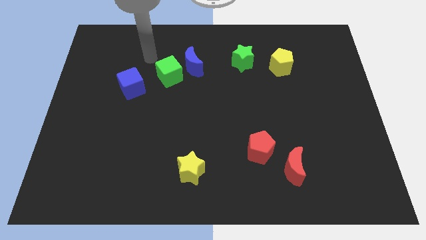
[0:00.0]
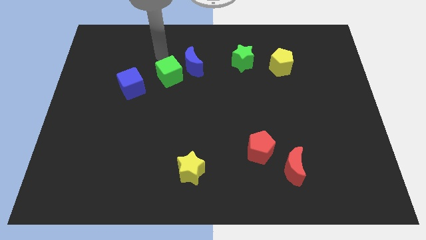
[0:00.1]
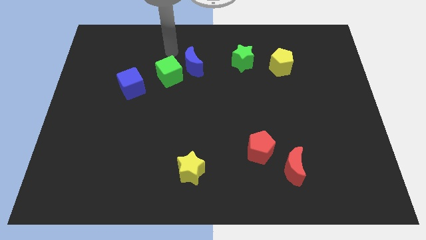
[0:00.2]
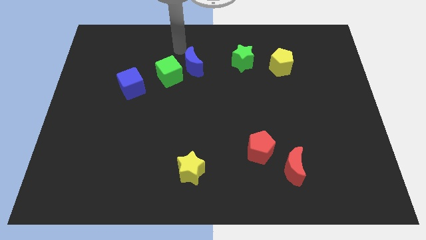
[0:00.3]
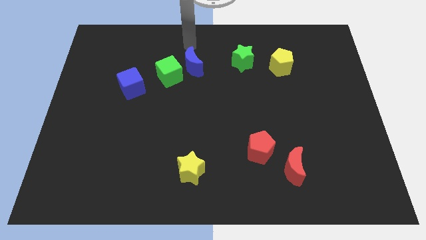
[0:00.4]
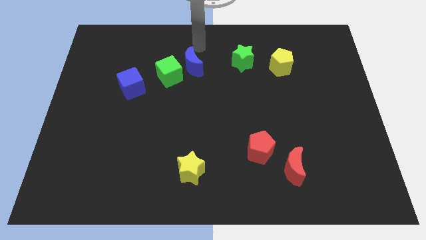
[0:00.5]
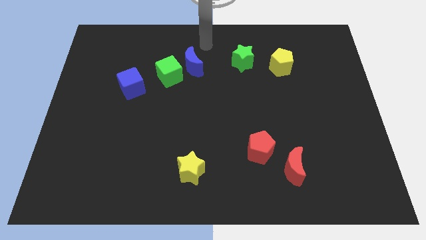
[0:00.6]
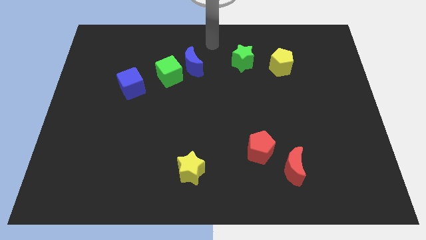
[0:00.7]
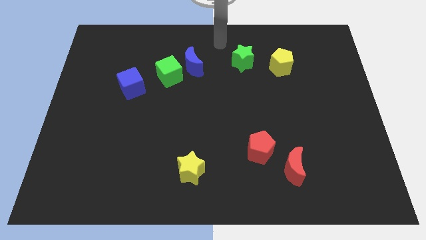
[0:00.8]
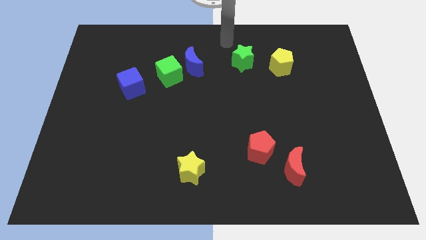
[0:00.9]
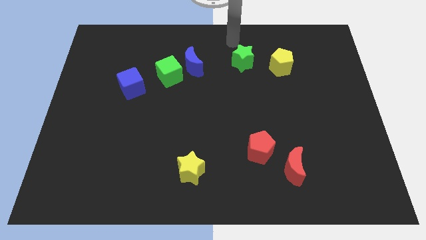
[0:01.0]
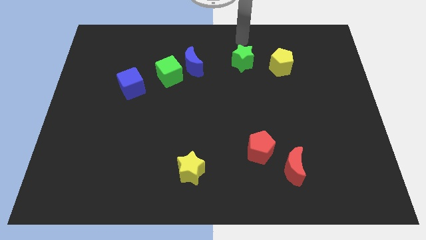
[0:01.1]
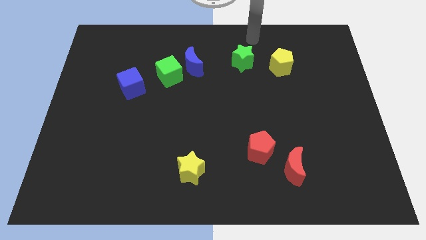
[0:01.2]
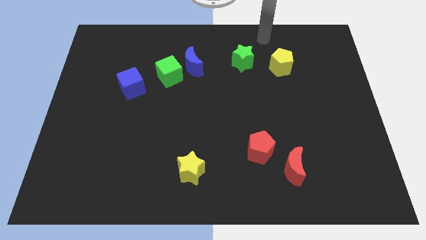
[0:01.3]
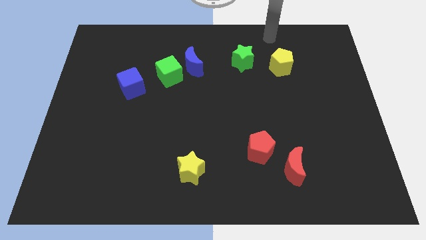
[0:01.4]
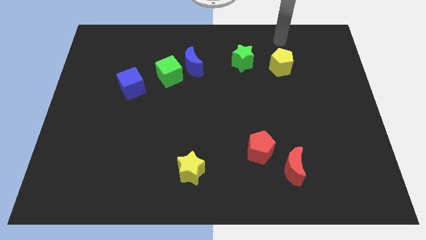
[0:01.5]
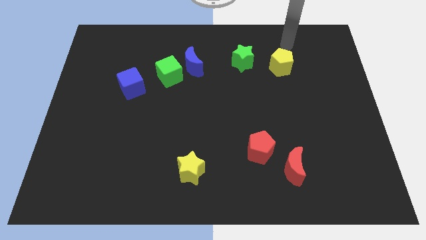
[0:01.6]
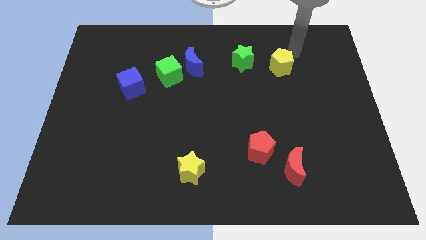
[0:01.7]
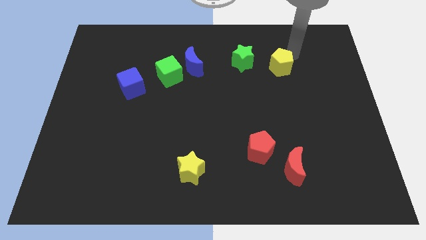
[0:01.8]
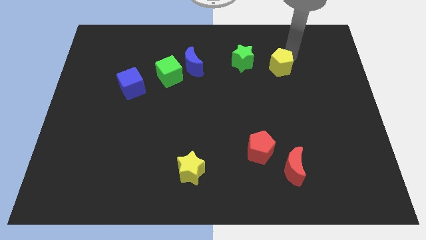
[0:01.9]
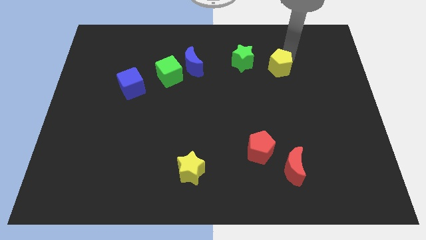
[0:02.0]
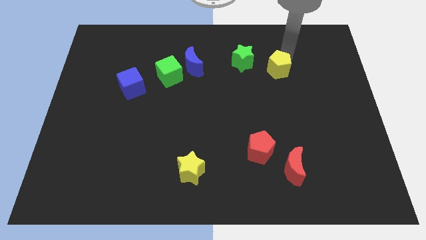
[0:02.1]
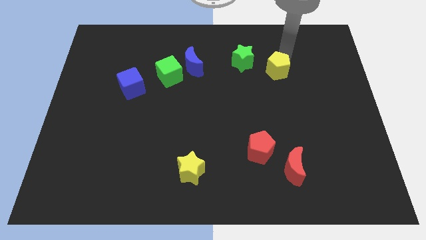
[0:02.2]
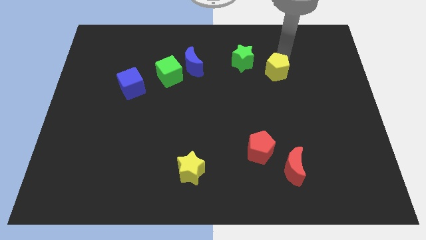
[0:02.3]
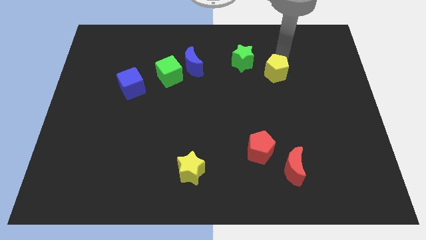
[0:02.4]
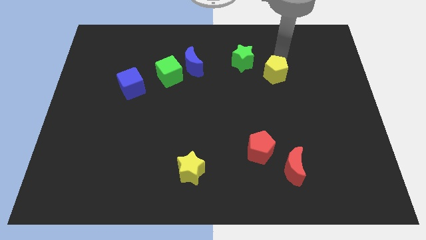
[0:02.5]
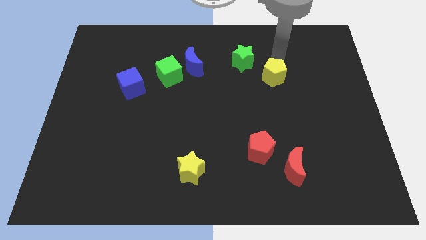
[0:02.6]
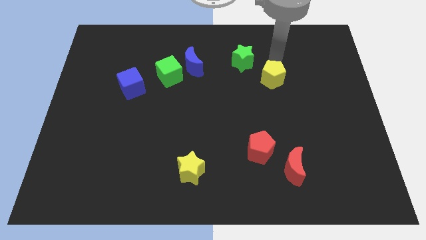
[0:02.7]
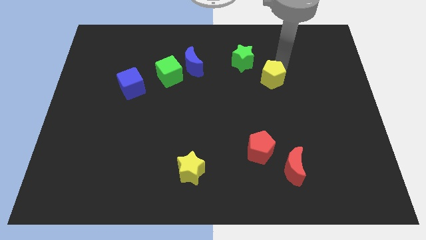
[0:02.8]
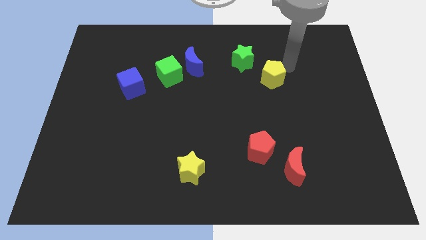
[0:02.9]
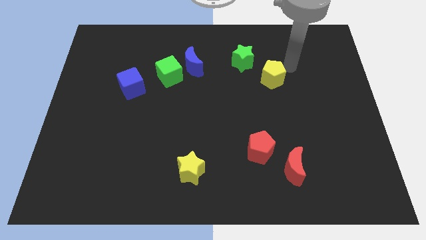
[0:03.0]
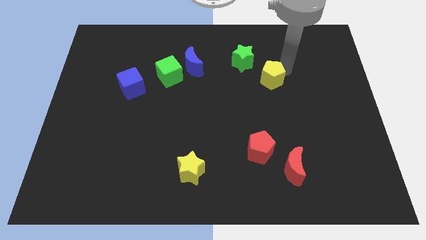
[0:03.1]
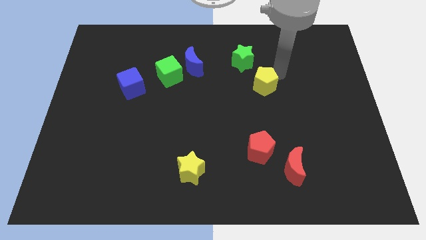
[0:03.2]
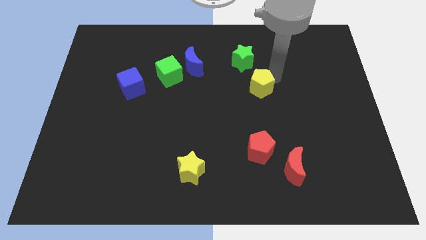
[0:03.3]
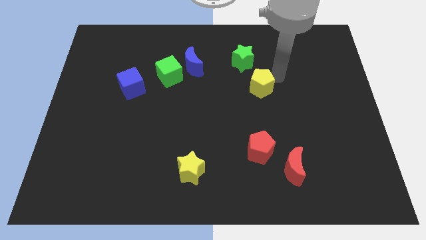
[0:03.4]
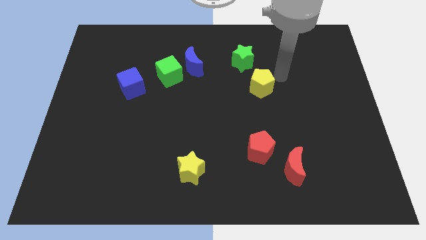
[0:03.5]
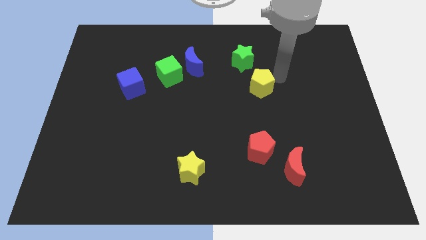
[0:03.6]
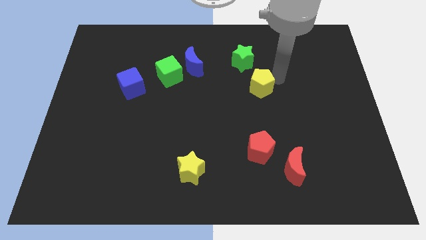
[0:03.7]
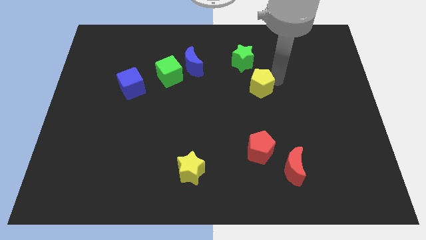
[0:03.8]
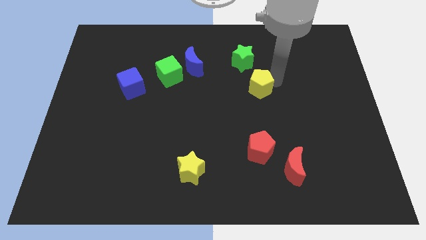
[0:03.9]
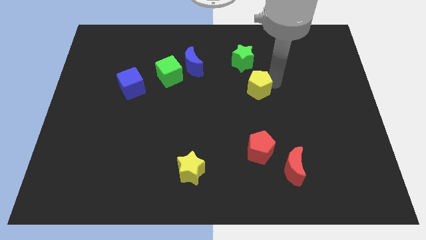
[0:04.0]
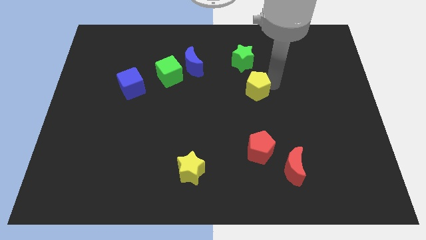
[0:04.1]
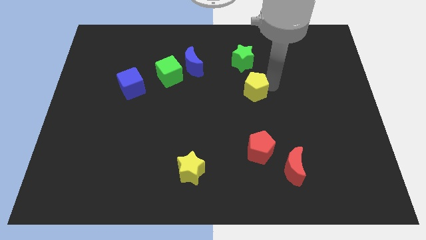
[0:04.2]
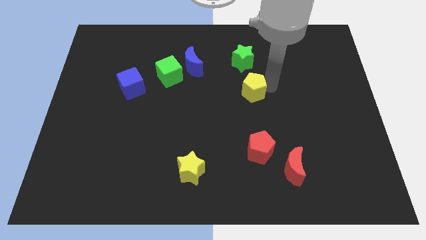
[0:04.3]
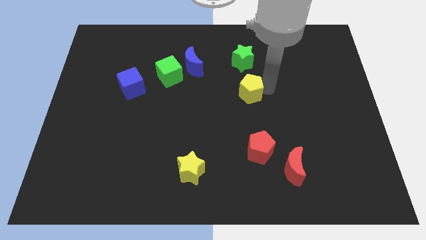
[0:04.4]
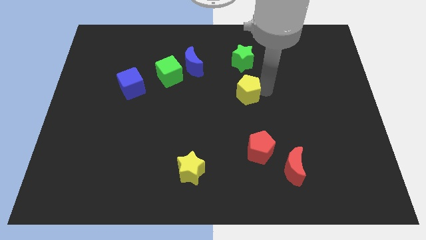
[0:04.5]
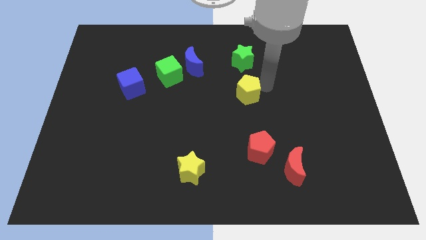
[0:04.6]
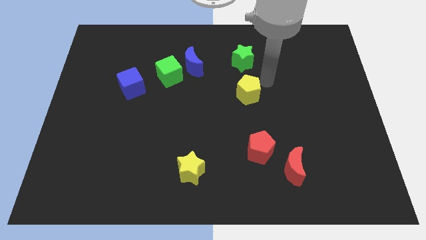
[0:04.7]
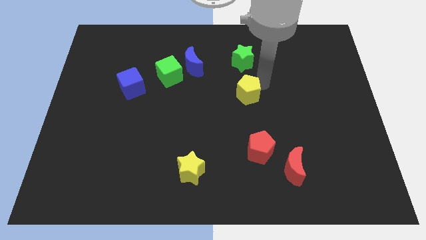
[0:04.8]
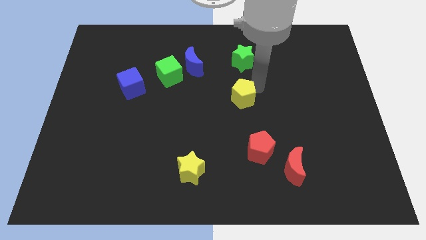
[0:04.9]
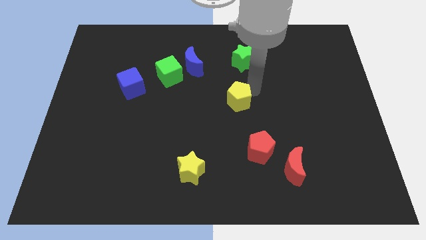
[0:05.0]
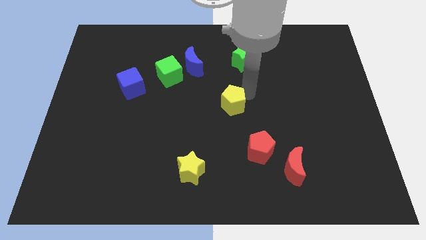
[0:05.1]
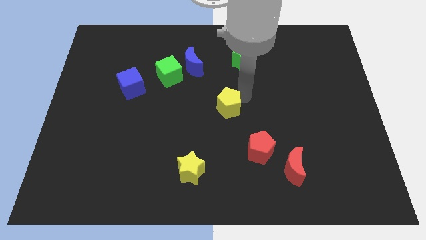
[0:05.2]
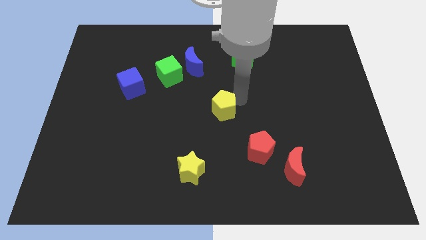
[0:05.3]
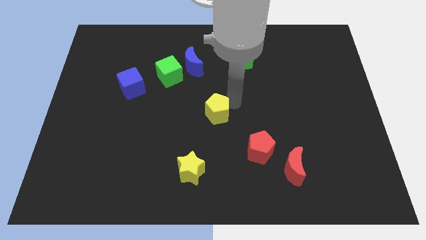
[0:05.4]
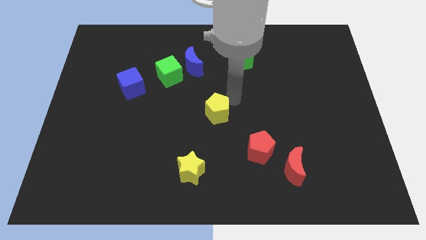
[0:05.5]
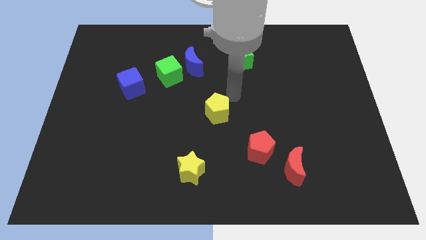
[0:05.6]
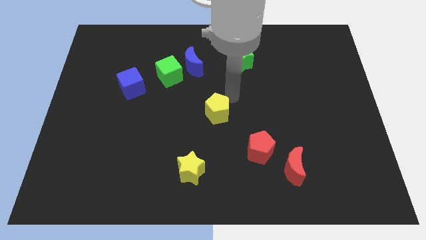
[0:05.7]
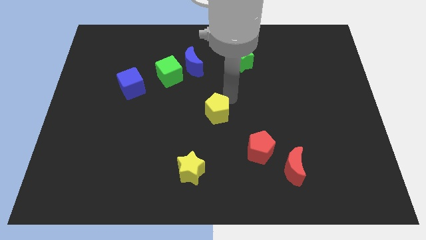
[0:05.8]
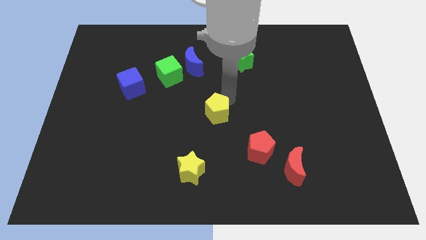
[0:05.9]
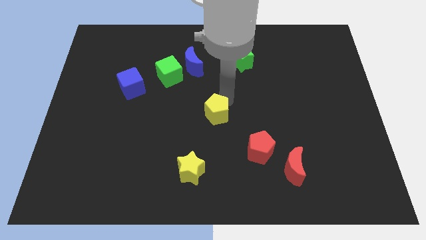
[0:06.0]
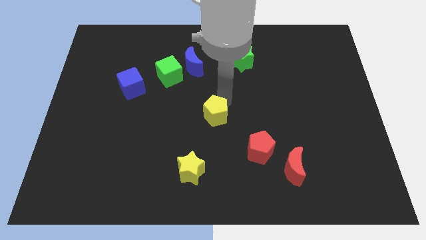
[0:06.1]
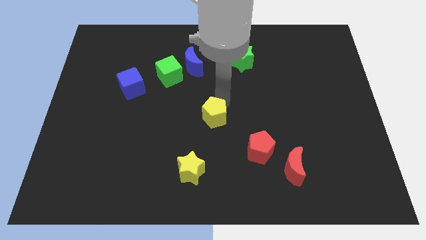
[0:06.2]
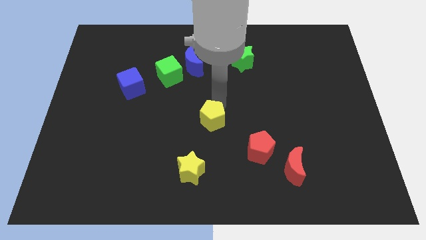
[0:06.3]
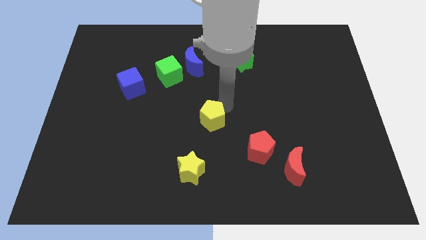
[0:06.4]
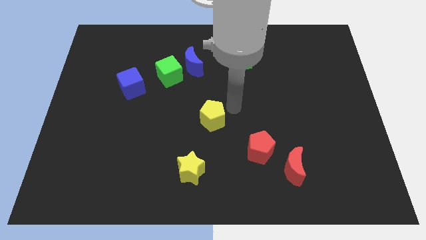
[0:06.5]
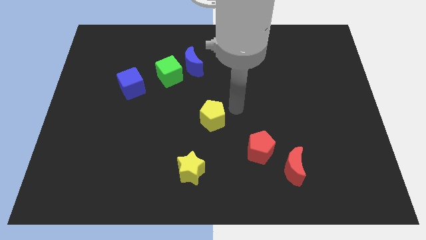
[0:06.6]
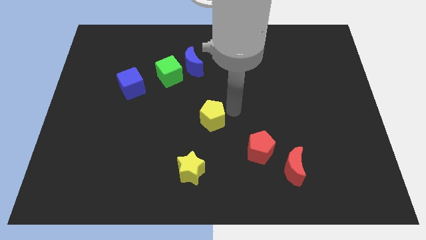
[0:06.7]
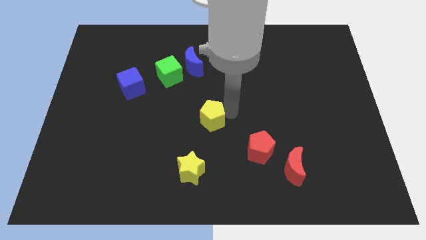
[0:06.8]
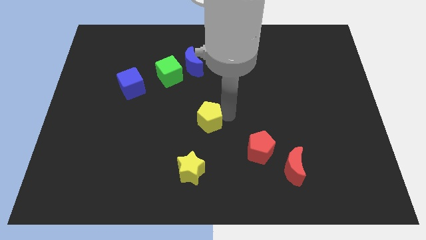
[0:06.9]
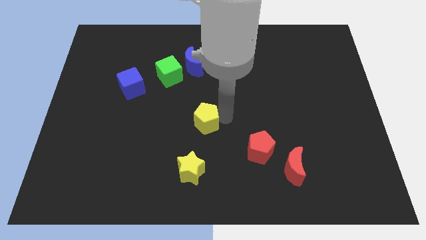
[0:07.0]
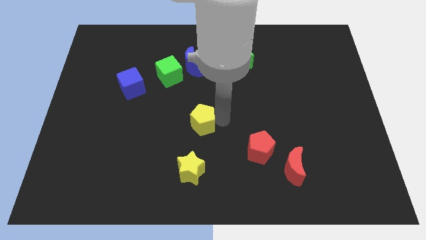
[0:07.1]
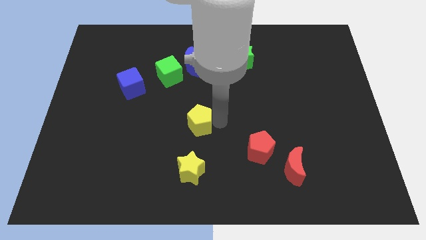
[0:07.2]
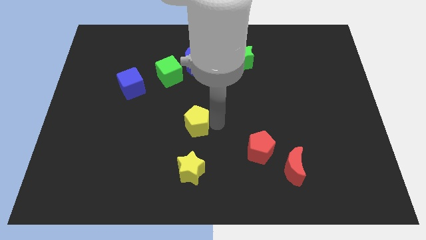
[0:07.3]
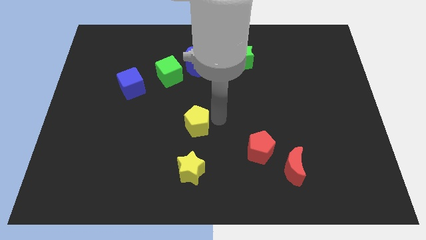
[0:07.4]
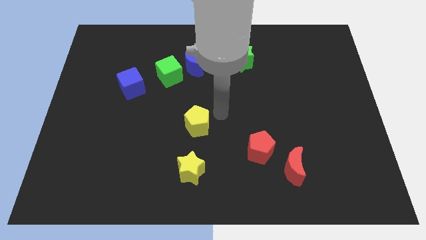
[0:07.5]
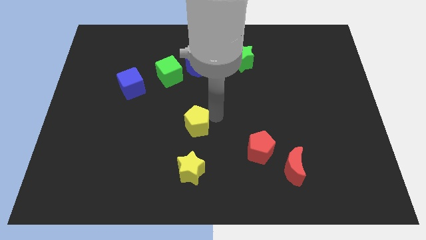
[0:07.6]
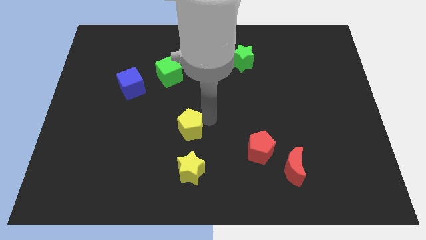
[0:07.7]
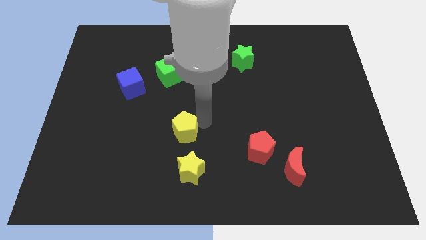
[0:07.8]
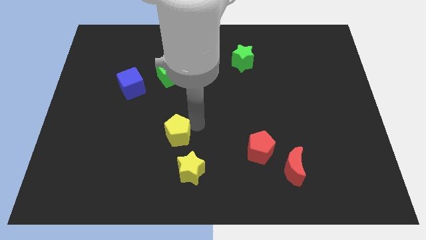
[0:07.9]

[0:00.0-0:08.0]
put the yellow pentagon to the top left of the yellow star

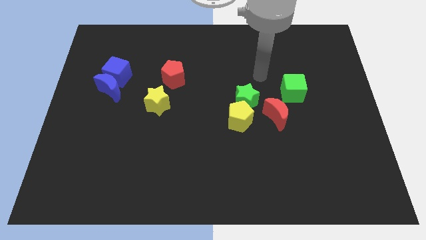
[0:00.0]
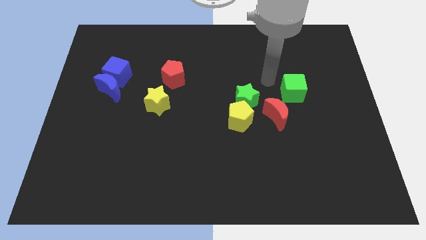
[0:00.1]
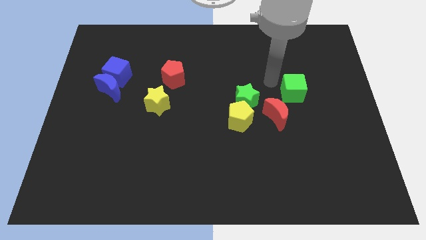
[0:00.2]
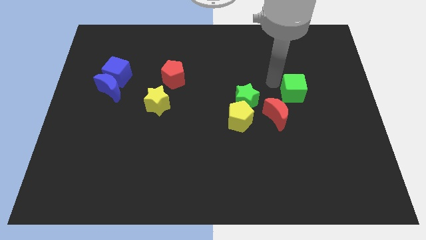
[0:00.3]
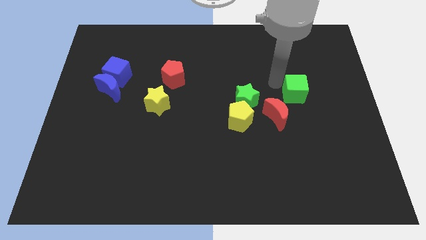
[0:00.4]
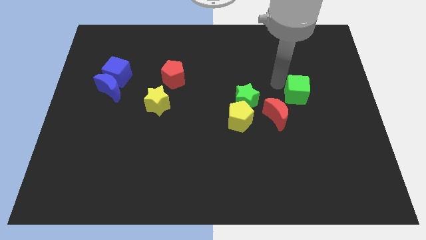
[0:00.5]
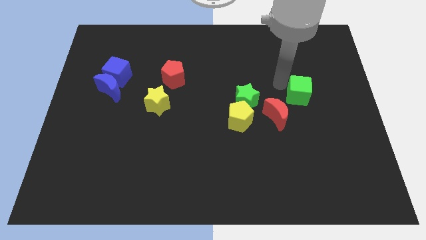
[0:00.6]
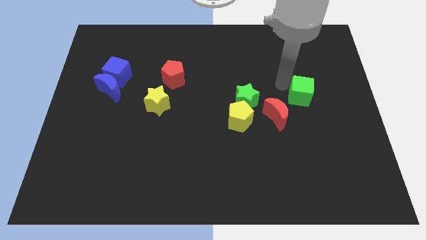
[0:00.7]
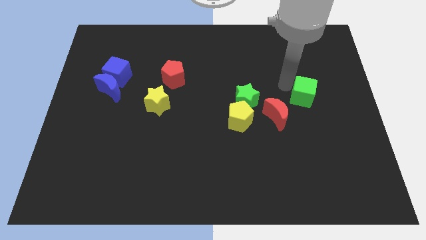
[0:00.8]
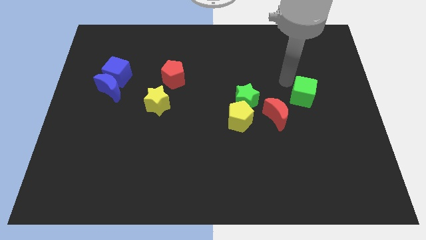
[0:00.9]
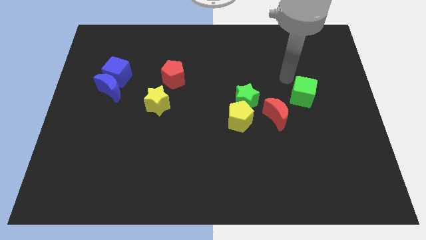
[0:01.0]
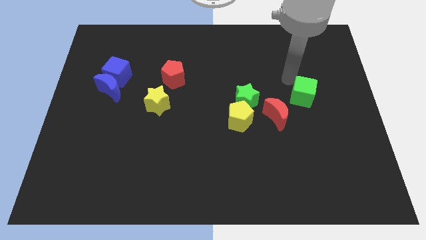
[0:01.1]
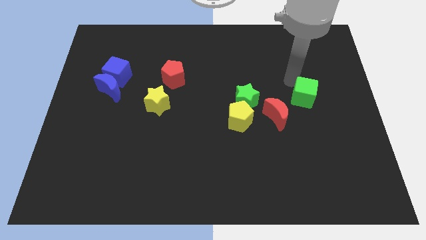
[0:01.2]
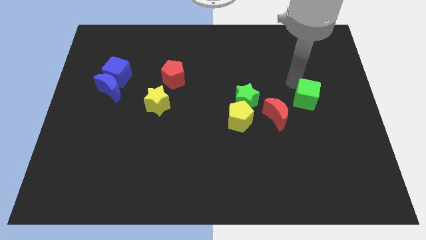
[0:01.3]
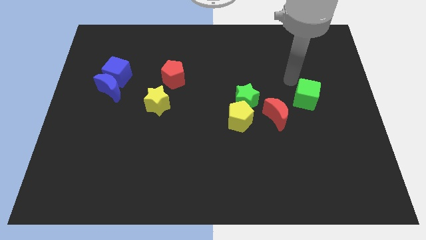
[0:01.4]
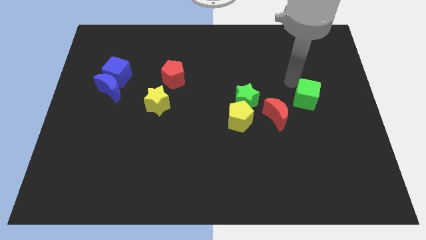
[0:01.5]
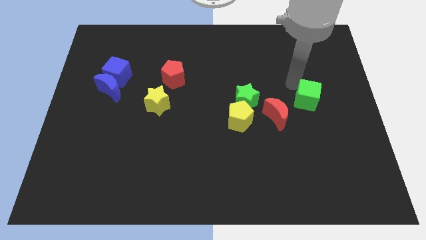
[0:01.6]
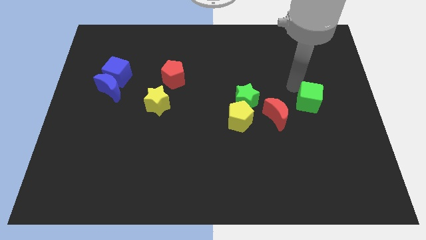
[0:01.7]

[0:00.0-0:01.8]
move the green cube to the right side of the red moon
